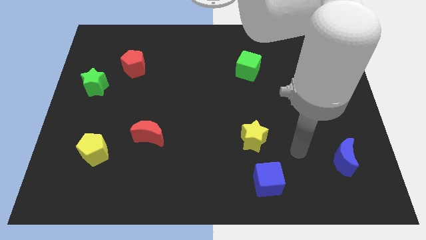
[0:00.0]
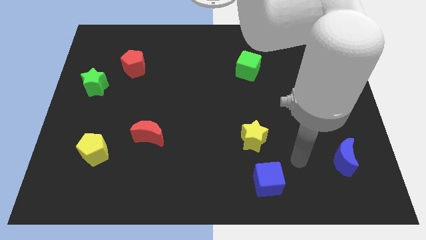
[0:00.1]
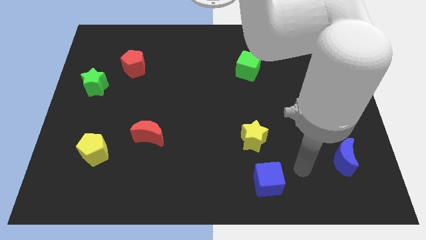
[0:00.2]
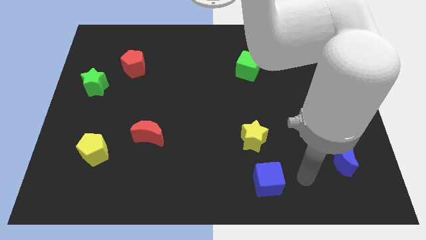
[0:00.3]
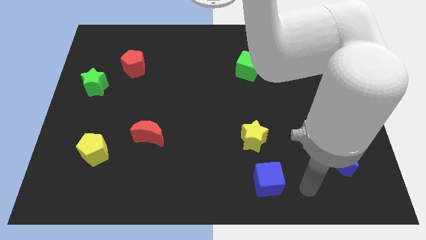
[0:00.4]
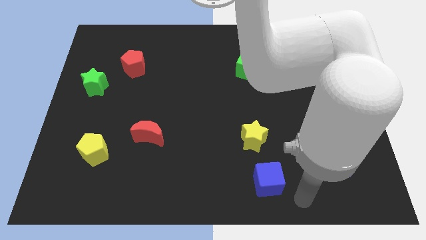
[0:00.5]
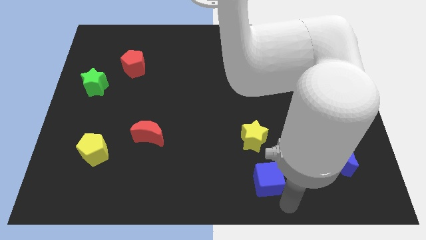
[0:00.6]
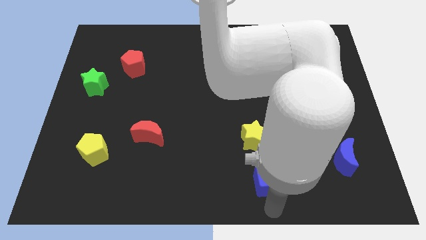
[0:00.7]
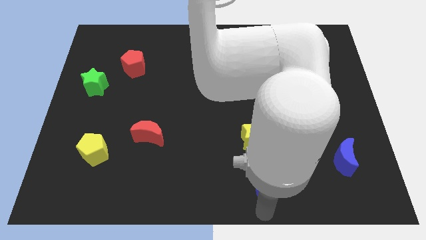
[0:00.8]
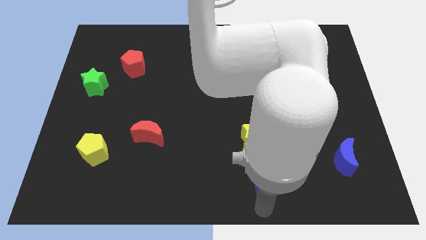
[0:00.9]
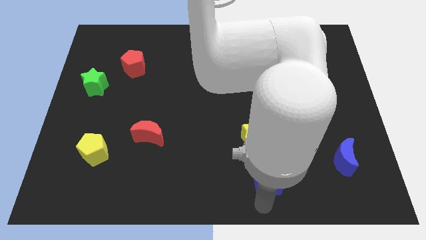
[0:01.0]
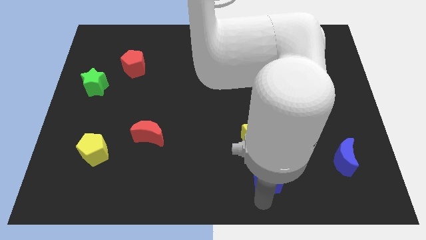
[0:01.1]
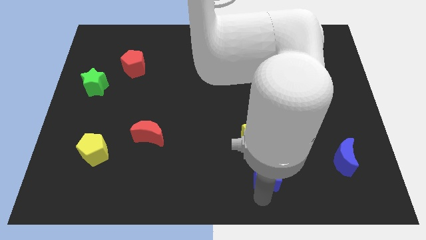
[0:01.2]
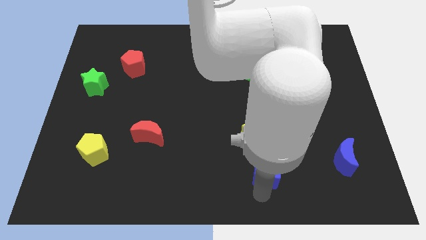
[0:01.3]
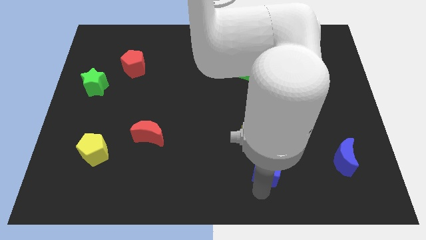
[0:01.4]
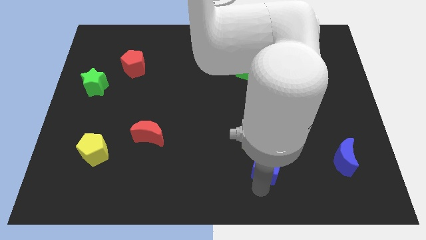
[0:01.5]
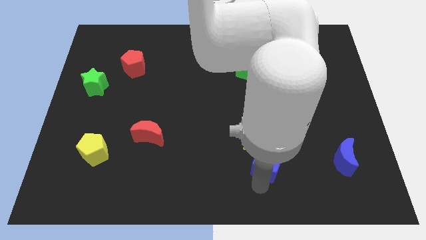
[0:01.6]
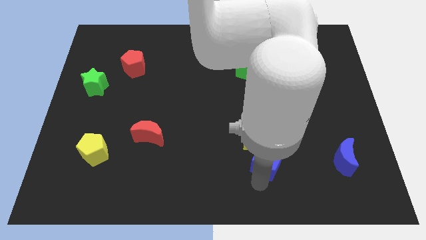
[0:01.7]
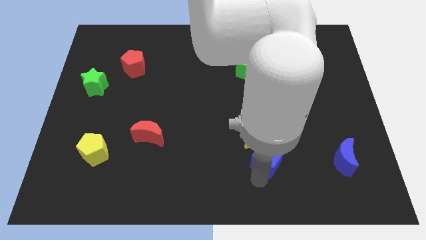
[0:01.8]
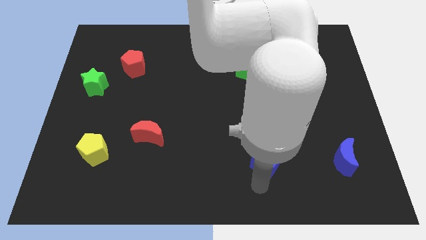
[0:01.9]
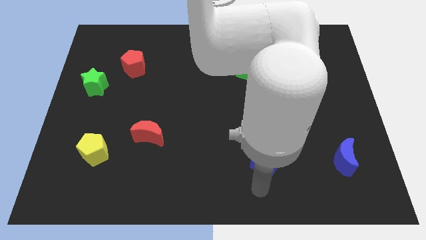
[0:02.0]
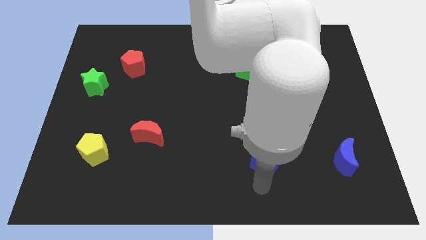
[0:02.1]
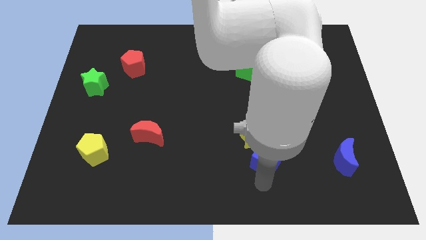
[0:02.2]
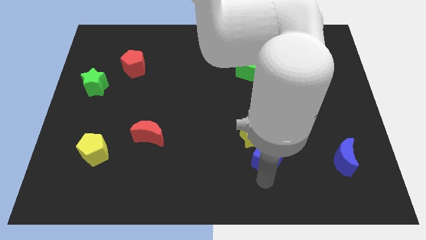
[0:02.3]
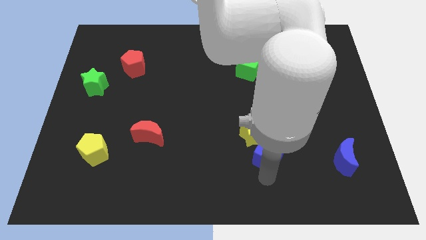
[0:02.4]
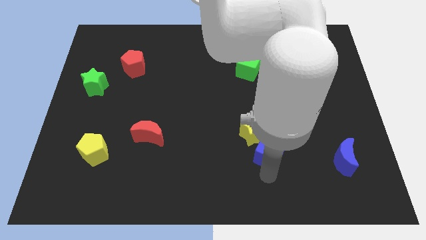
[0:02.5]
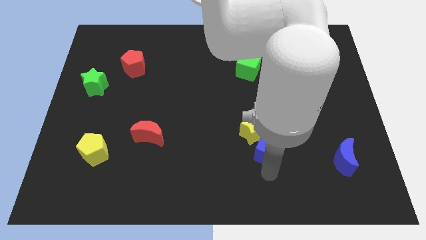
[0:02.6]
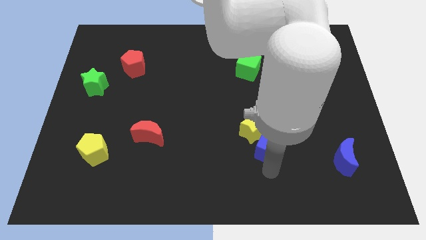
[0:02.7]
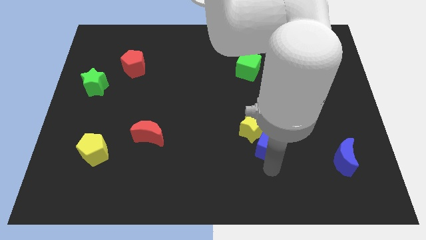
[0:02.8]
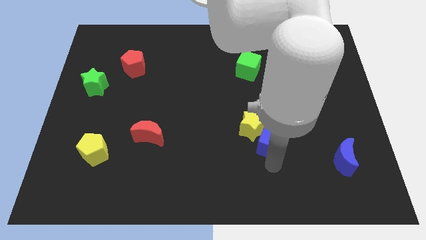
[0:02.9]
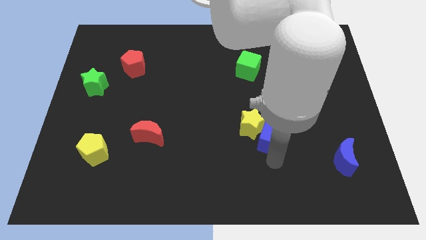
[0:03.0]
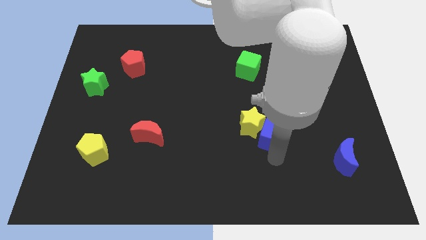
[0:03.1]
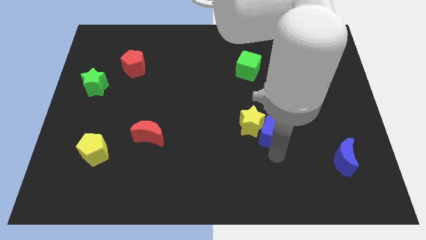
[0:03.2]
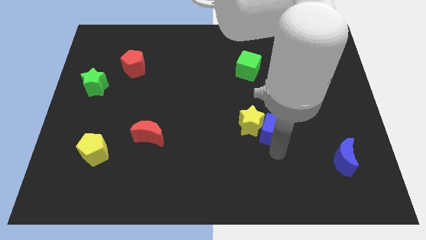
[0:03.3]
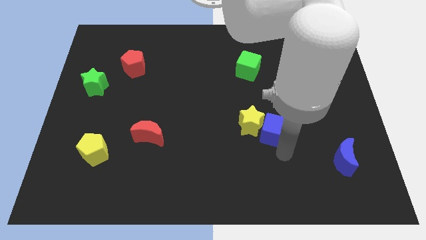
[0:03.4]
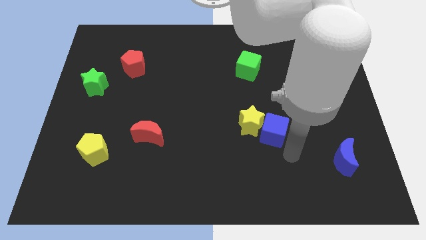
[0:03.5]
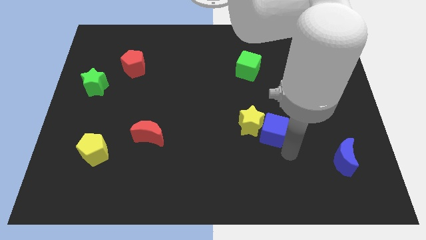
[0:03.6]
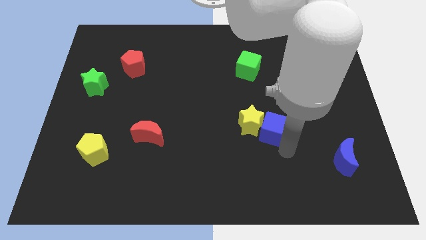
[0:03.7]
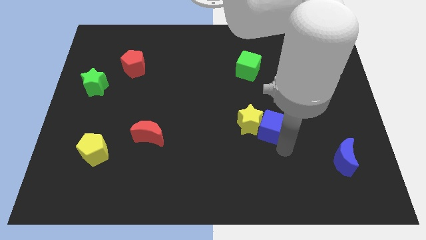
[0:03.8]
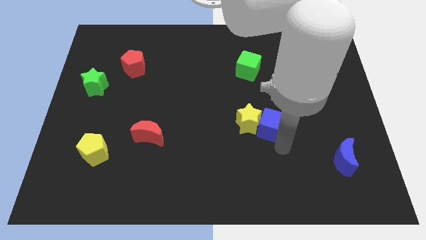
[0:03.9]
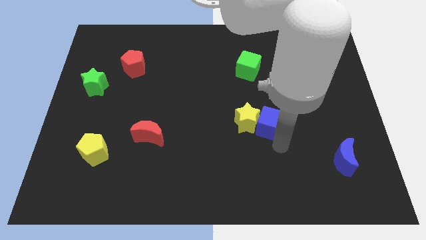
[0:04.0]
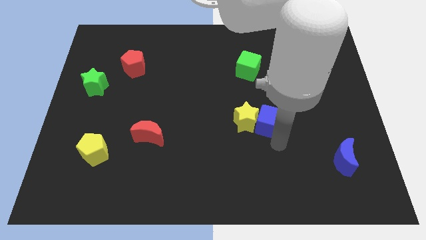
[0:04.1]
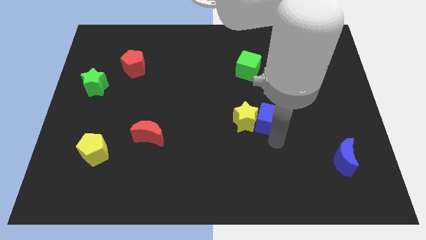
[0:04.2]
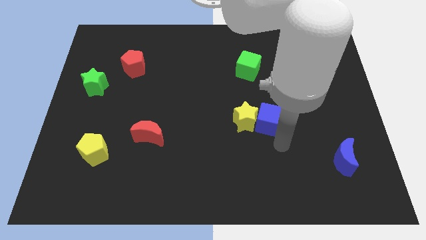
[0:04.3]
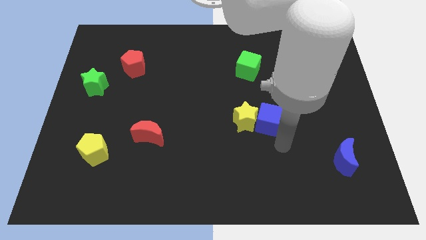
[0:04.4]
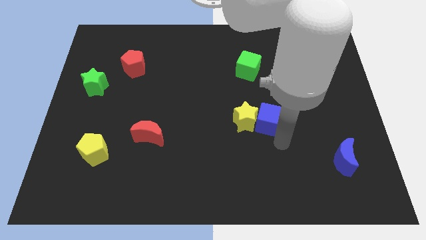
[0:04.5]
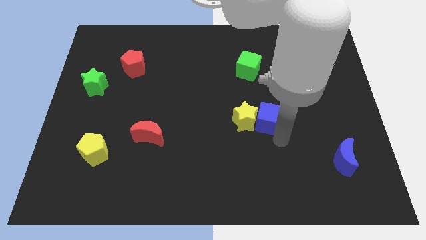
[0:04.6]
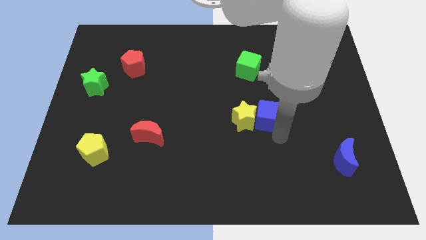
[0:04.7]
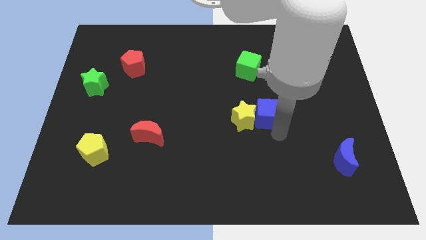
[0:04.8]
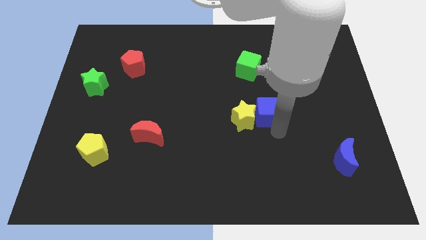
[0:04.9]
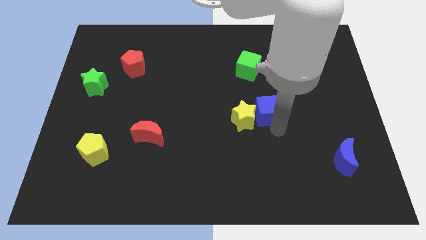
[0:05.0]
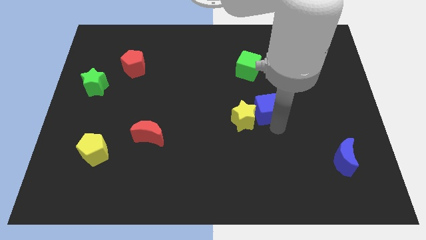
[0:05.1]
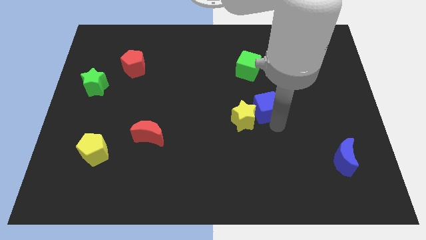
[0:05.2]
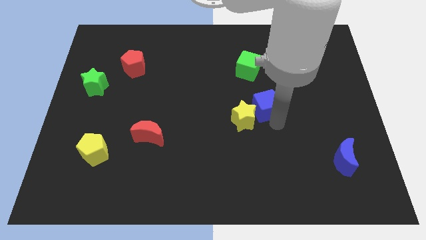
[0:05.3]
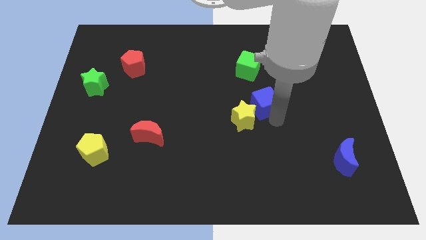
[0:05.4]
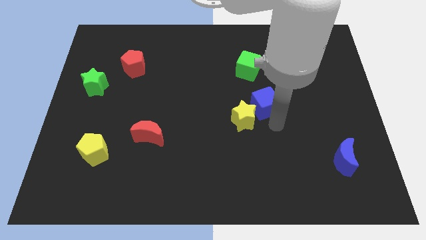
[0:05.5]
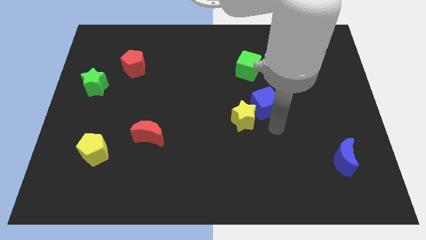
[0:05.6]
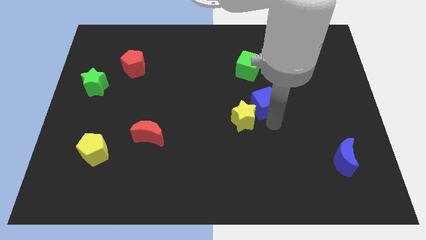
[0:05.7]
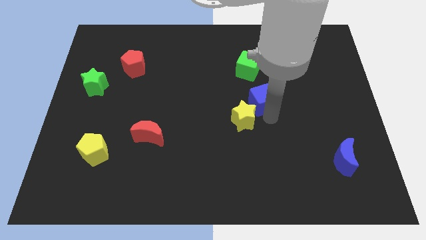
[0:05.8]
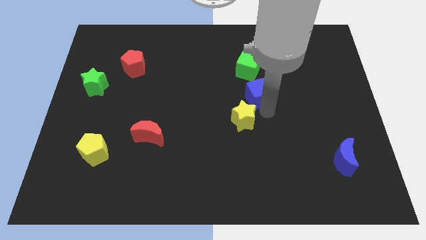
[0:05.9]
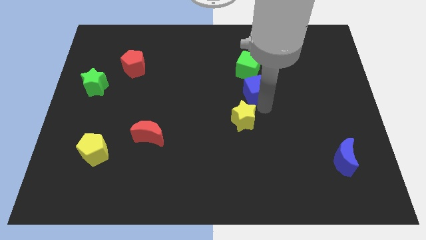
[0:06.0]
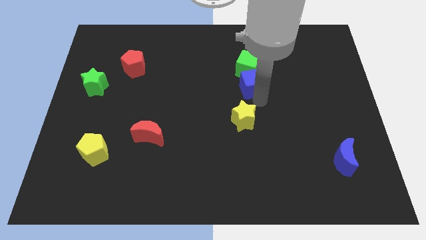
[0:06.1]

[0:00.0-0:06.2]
slide the blue cube towards the green cube

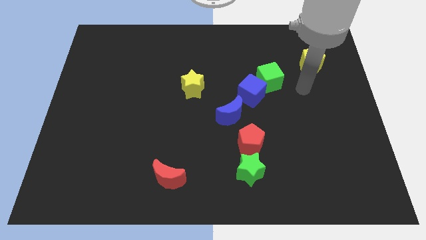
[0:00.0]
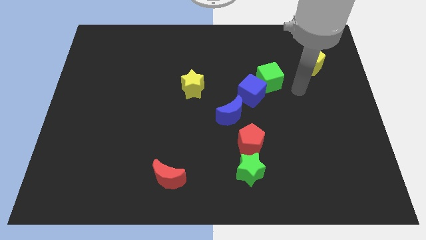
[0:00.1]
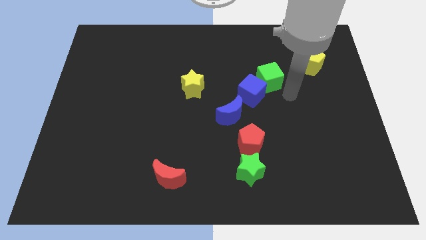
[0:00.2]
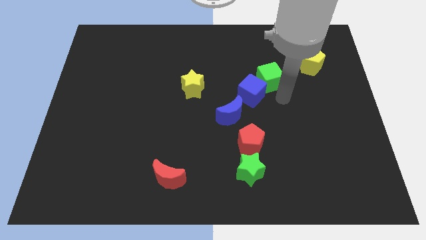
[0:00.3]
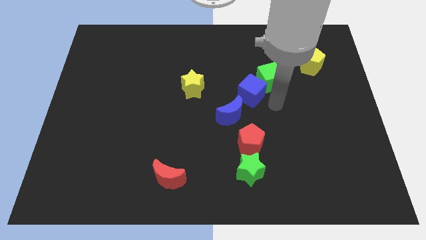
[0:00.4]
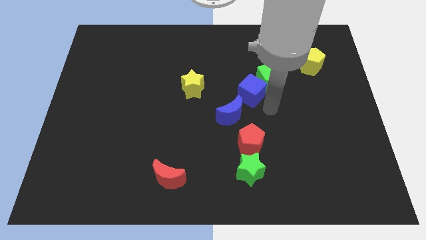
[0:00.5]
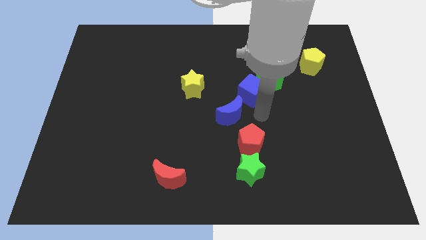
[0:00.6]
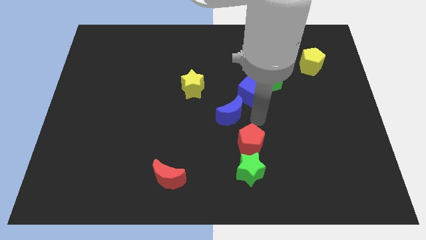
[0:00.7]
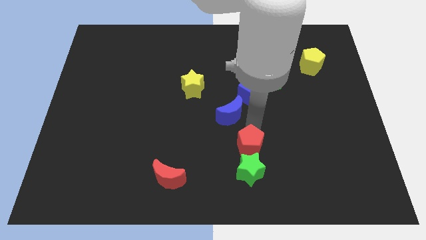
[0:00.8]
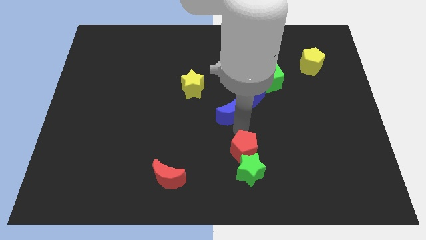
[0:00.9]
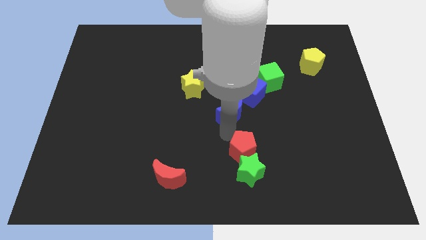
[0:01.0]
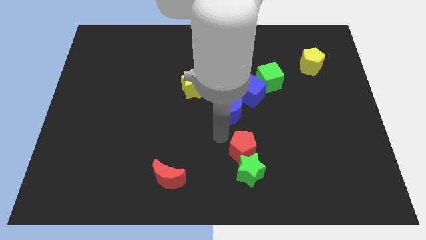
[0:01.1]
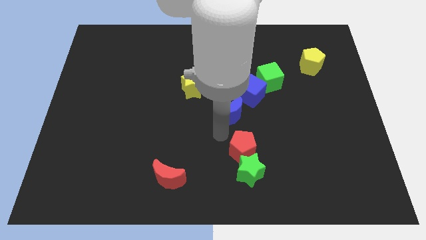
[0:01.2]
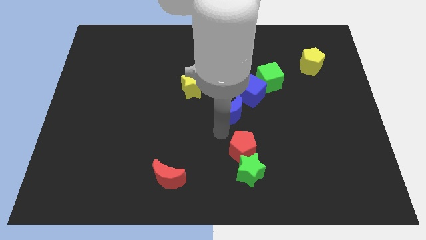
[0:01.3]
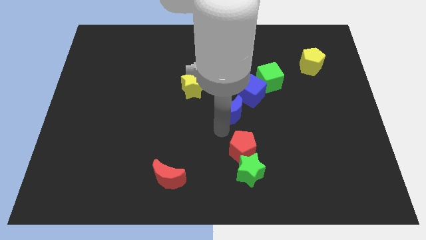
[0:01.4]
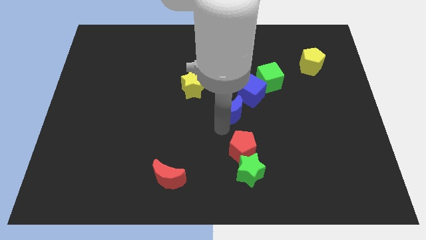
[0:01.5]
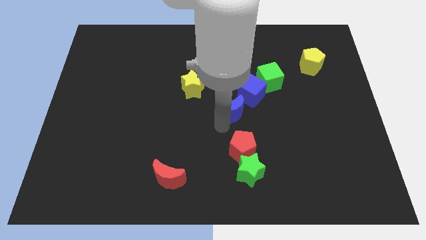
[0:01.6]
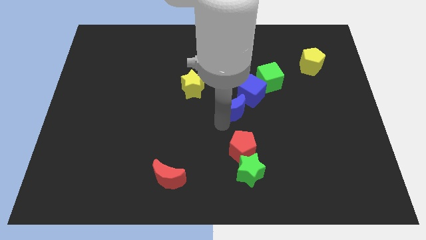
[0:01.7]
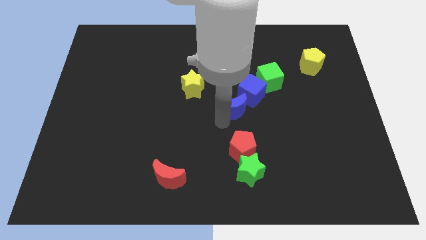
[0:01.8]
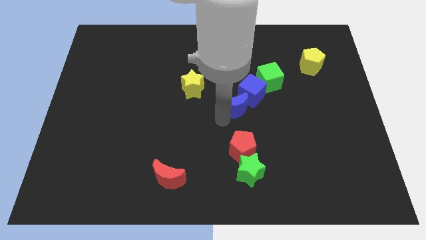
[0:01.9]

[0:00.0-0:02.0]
slide the blue moon towards the blue cube
